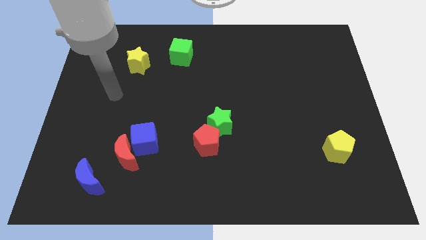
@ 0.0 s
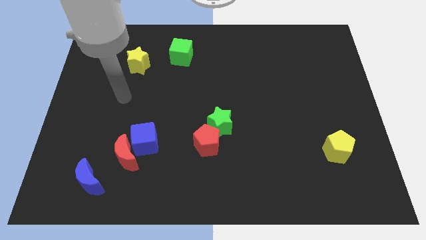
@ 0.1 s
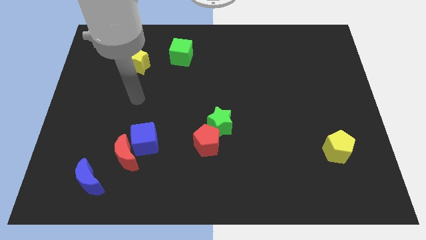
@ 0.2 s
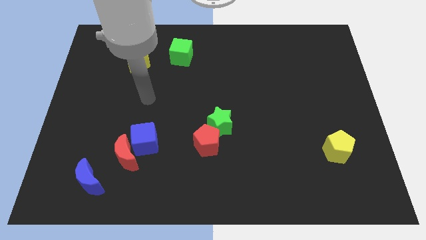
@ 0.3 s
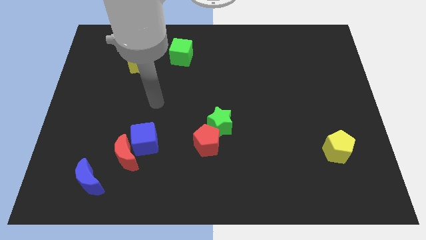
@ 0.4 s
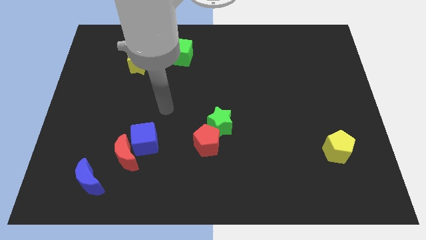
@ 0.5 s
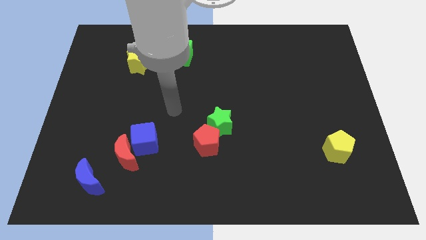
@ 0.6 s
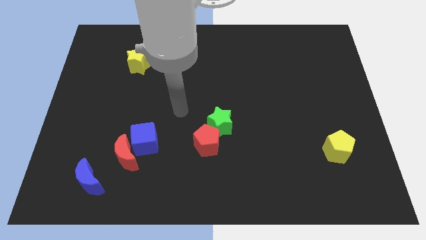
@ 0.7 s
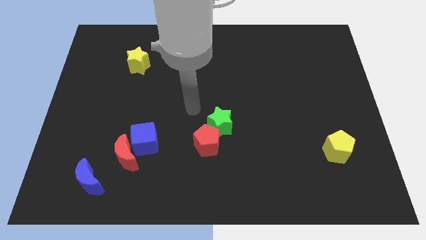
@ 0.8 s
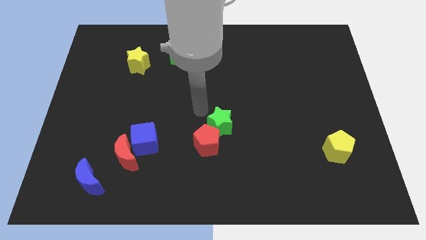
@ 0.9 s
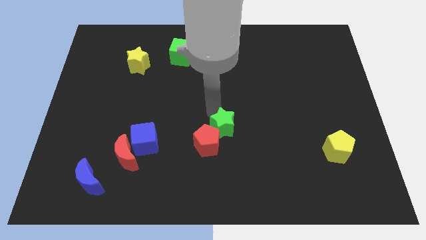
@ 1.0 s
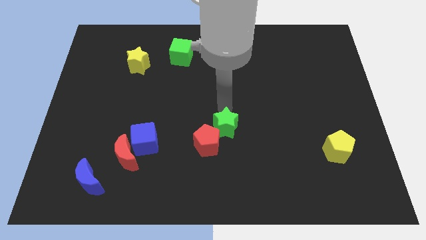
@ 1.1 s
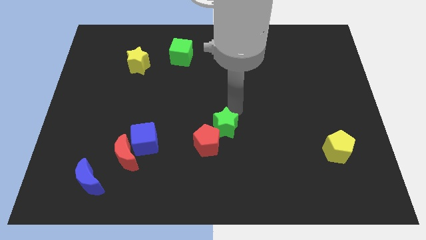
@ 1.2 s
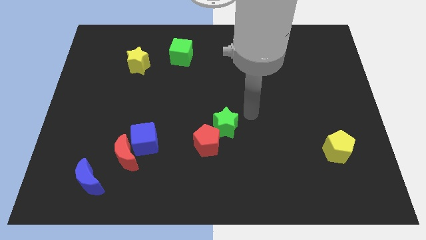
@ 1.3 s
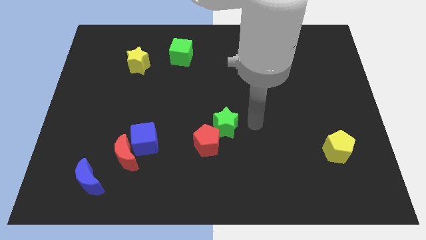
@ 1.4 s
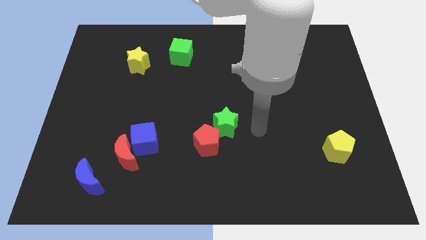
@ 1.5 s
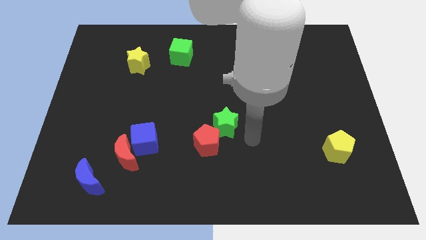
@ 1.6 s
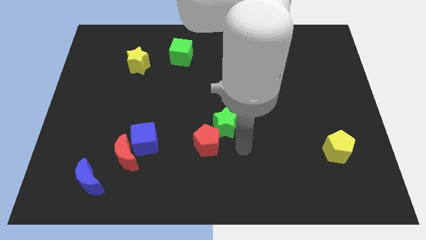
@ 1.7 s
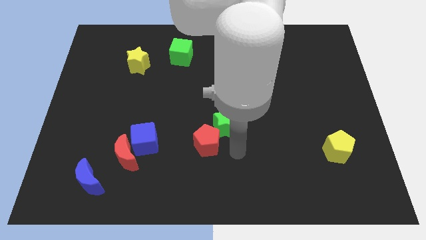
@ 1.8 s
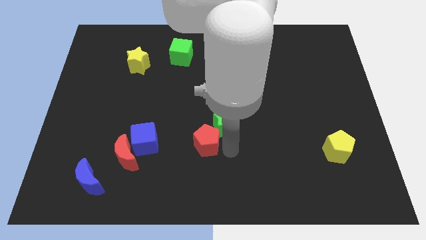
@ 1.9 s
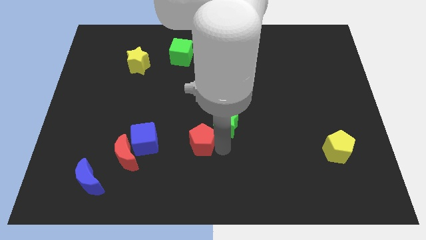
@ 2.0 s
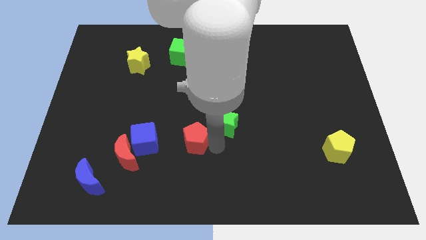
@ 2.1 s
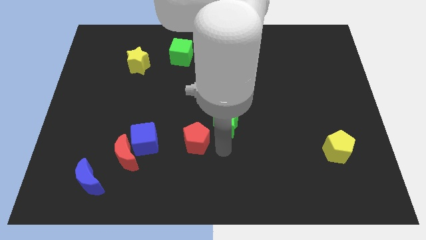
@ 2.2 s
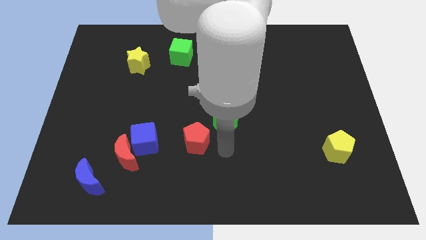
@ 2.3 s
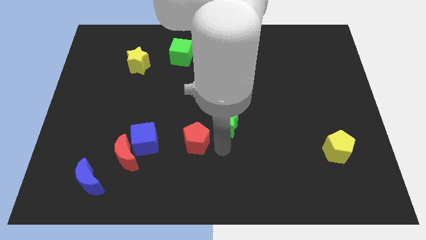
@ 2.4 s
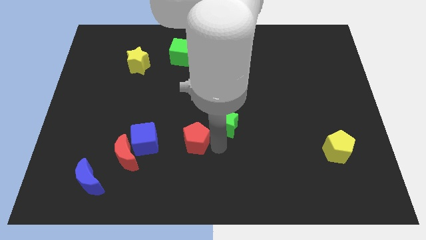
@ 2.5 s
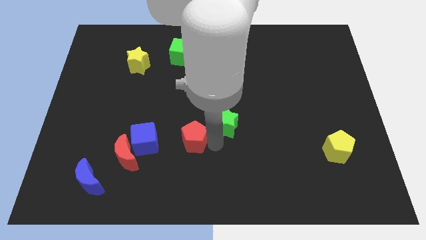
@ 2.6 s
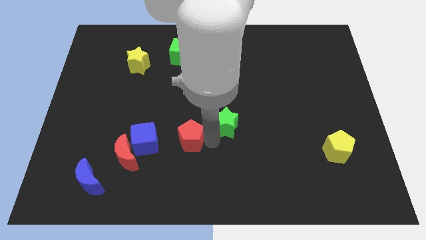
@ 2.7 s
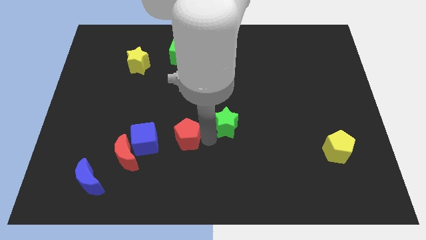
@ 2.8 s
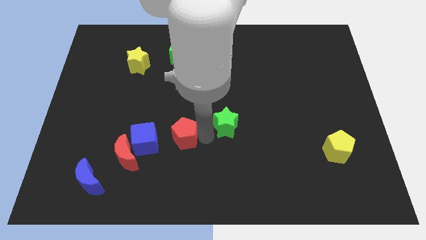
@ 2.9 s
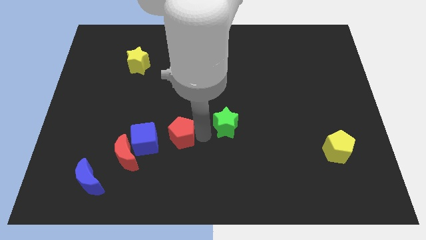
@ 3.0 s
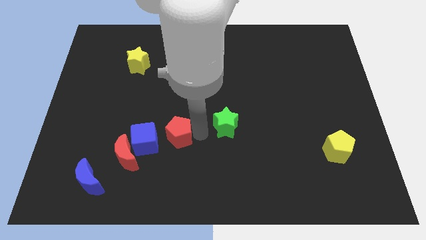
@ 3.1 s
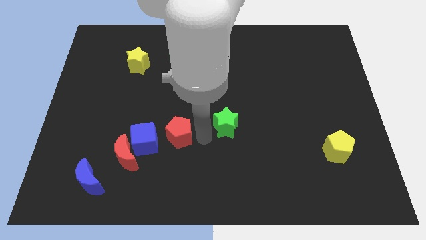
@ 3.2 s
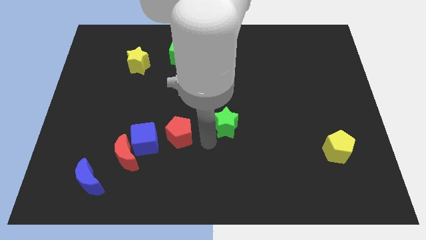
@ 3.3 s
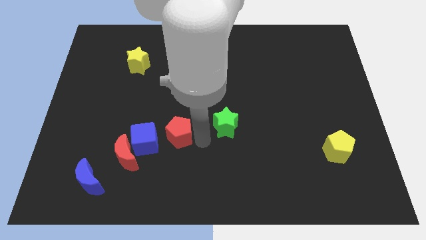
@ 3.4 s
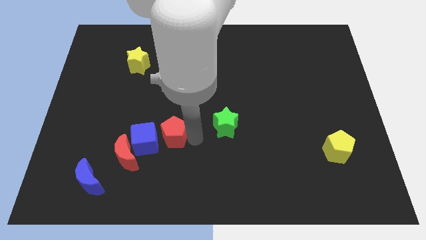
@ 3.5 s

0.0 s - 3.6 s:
move the red pentagon a bit left

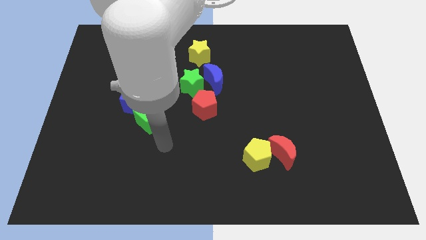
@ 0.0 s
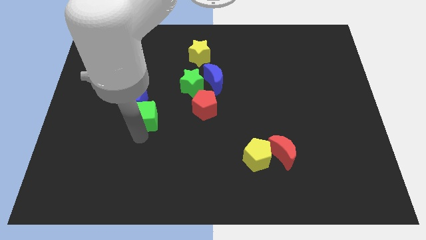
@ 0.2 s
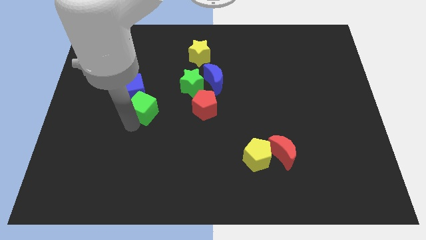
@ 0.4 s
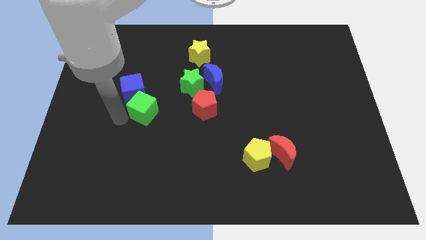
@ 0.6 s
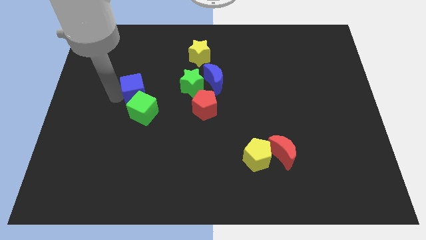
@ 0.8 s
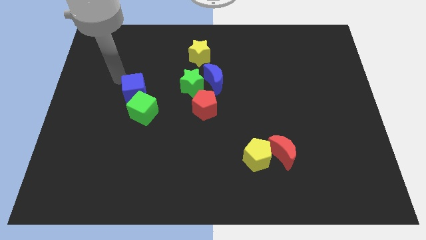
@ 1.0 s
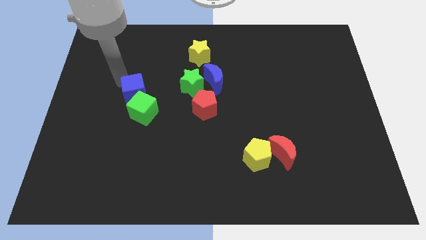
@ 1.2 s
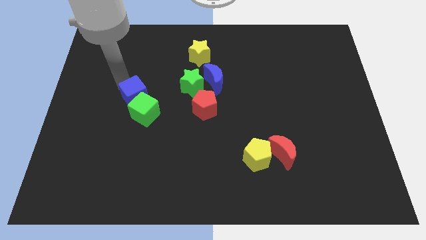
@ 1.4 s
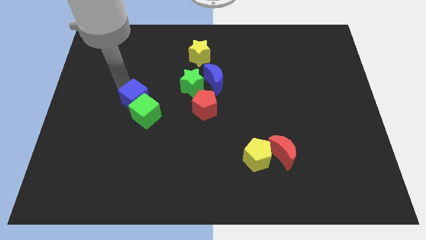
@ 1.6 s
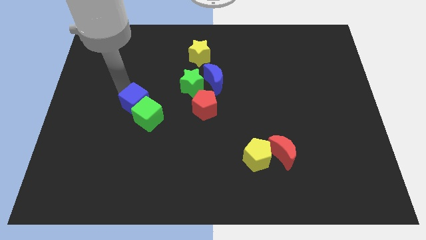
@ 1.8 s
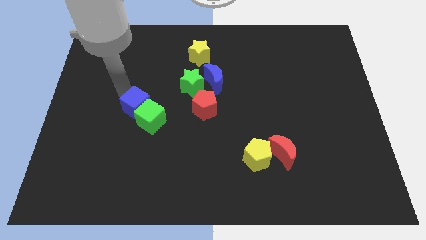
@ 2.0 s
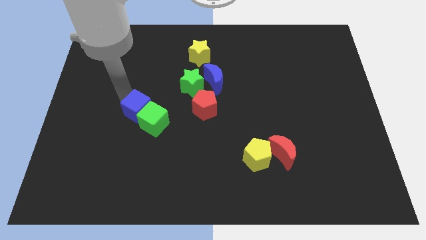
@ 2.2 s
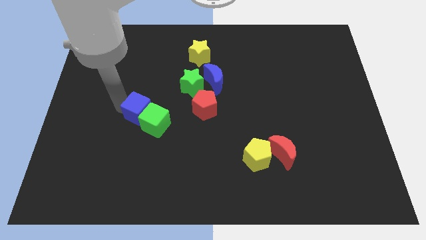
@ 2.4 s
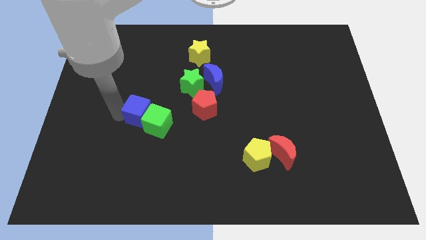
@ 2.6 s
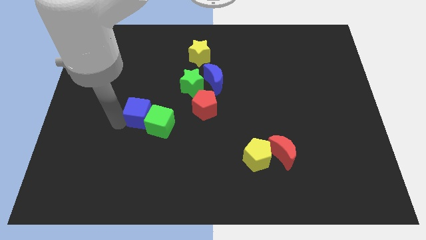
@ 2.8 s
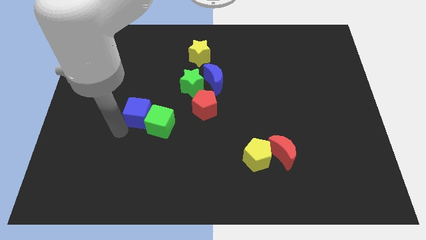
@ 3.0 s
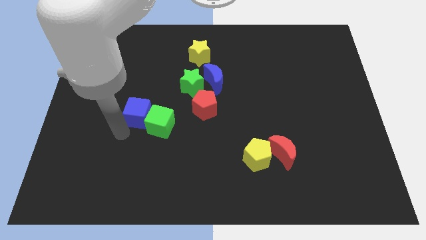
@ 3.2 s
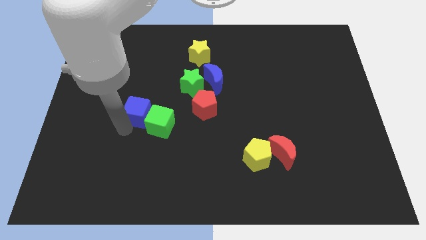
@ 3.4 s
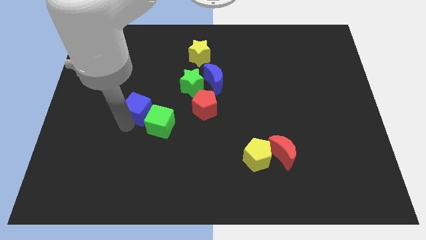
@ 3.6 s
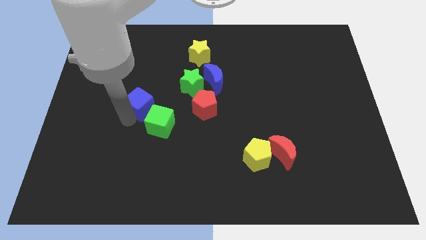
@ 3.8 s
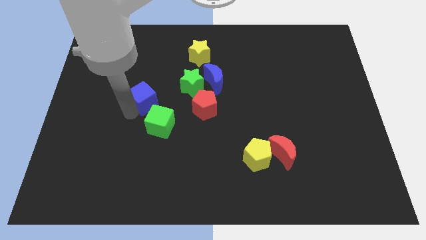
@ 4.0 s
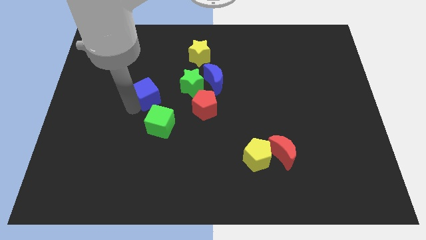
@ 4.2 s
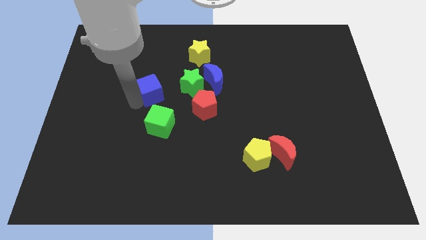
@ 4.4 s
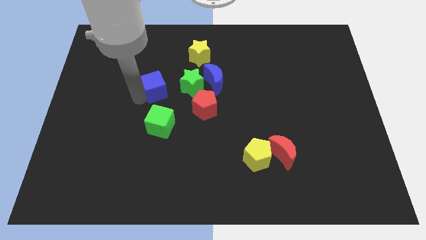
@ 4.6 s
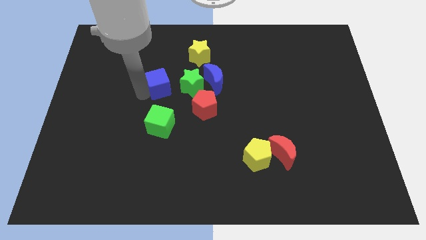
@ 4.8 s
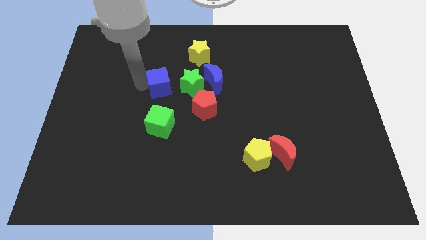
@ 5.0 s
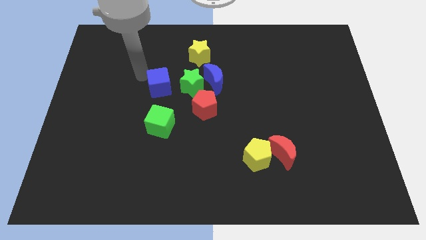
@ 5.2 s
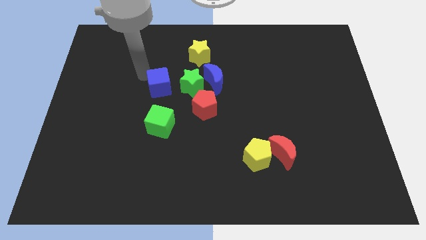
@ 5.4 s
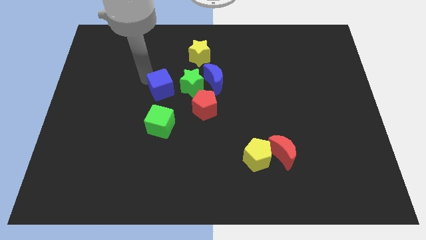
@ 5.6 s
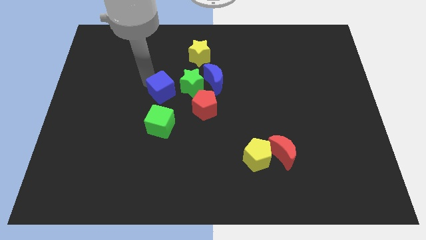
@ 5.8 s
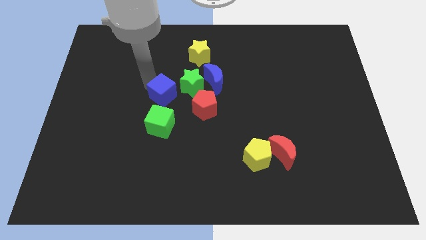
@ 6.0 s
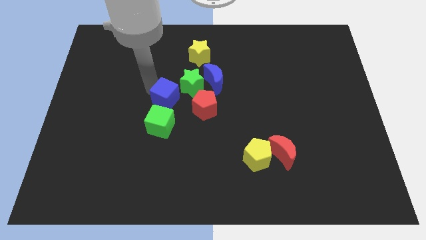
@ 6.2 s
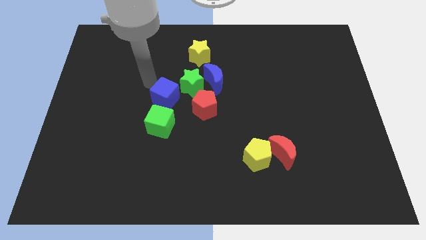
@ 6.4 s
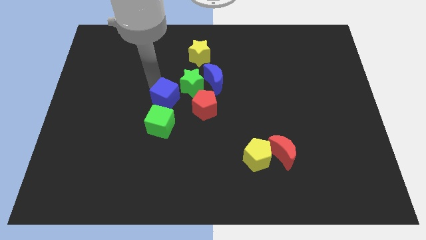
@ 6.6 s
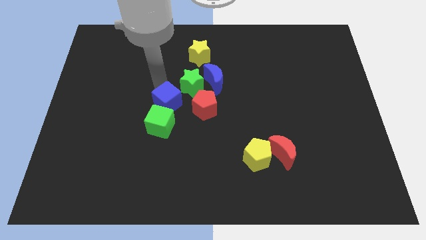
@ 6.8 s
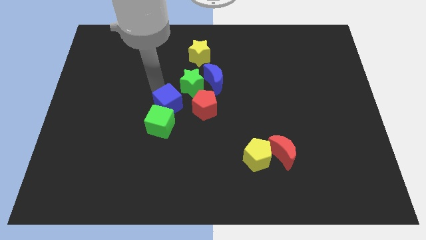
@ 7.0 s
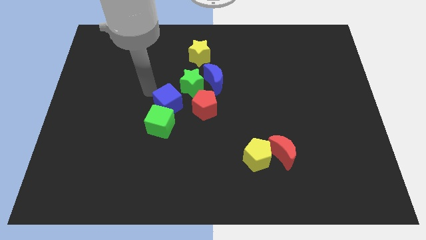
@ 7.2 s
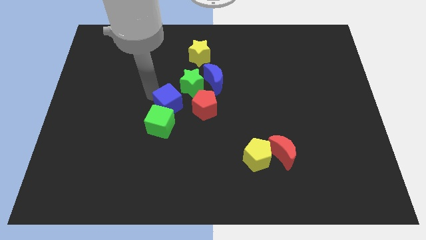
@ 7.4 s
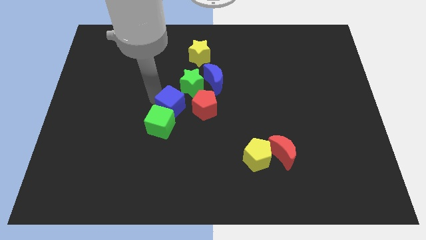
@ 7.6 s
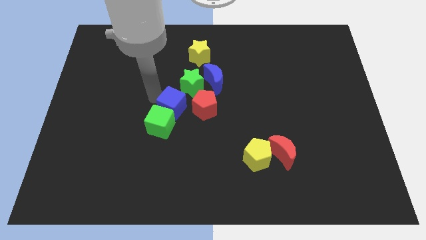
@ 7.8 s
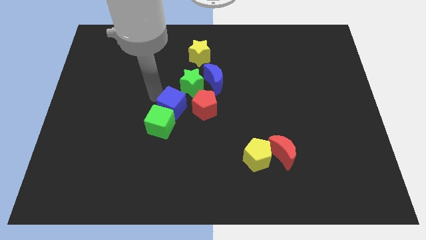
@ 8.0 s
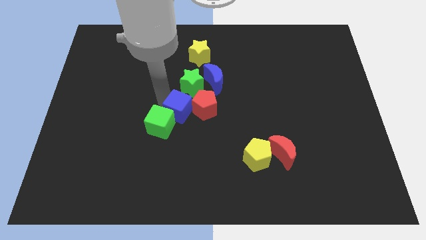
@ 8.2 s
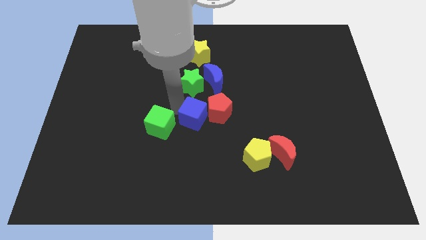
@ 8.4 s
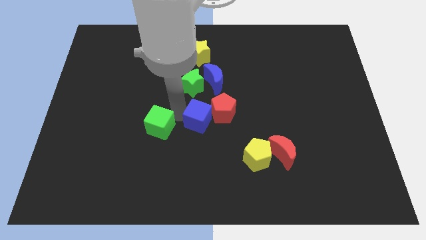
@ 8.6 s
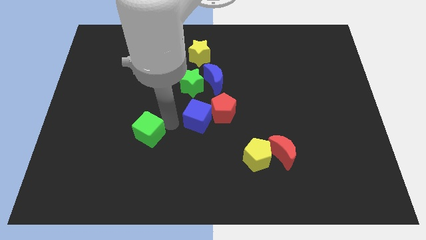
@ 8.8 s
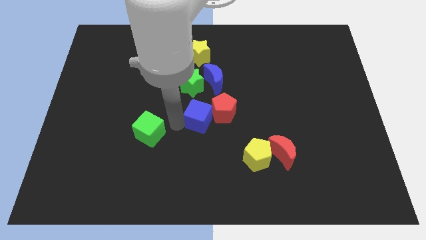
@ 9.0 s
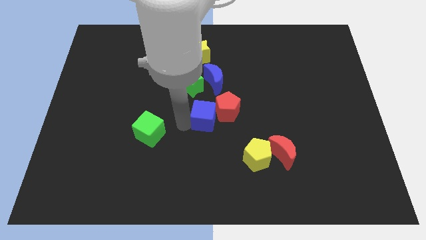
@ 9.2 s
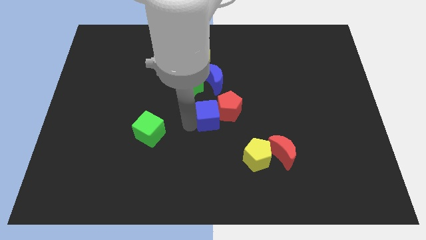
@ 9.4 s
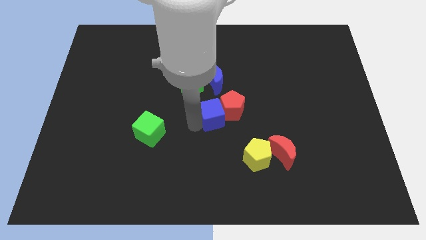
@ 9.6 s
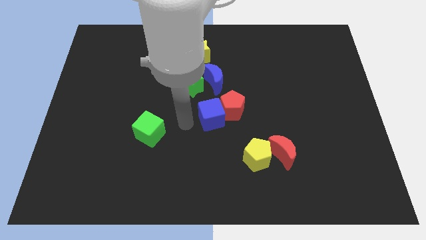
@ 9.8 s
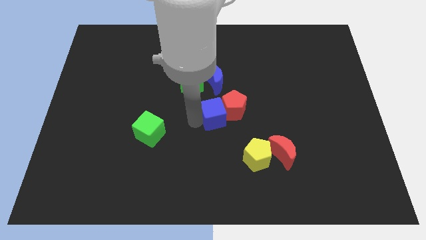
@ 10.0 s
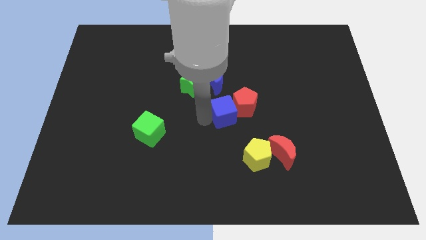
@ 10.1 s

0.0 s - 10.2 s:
push the blue cube to the right
